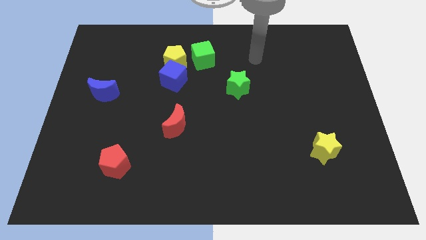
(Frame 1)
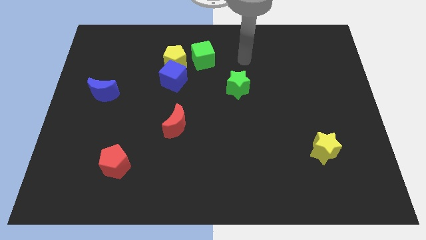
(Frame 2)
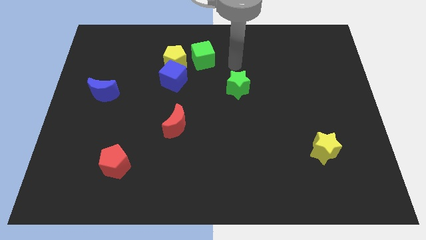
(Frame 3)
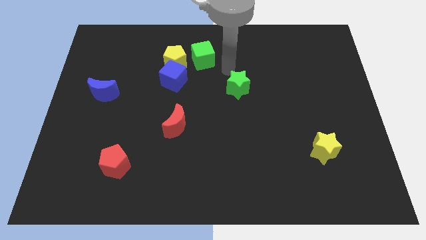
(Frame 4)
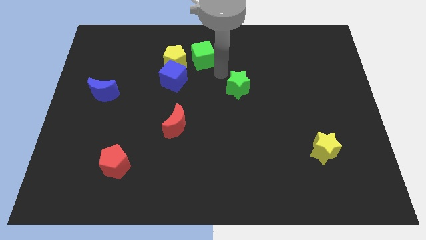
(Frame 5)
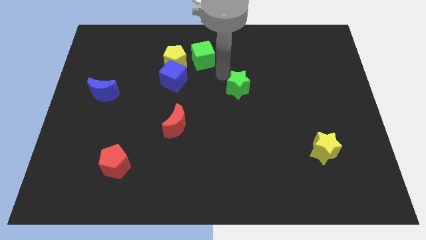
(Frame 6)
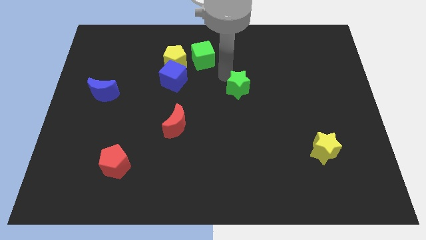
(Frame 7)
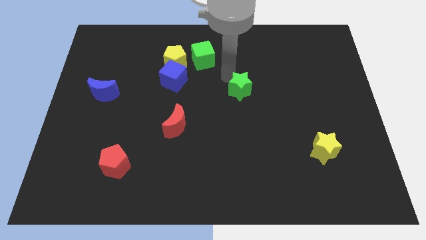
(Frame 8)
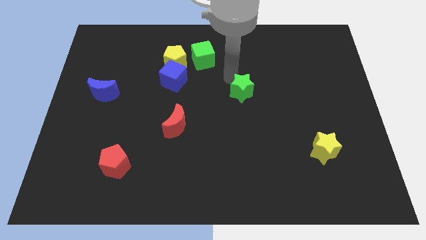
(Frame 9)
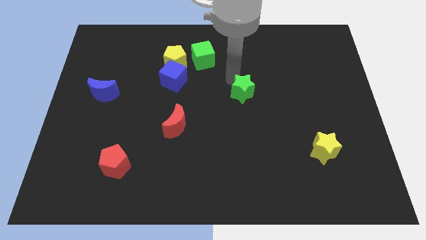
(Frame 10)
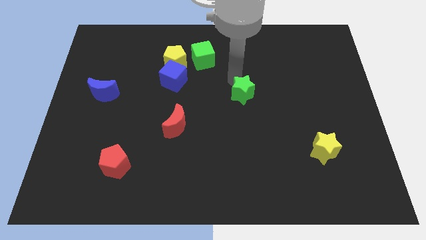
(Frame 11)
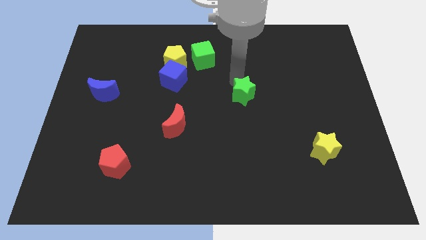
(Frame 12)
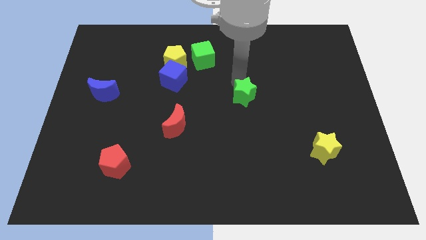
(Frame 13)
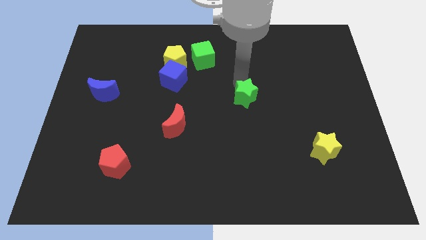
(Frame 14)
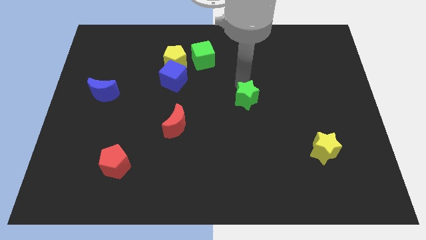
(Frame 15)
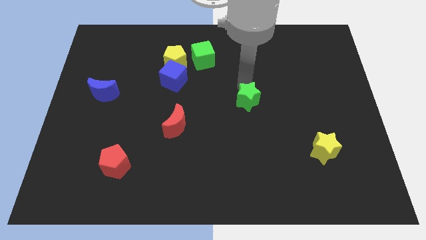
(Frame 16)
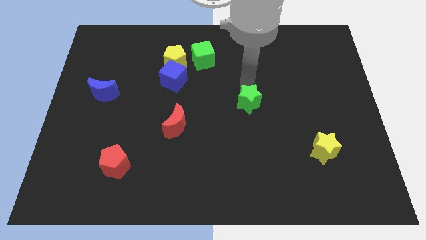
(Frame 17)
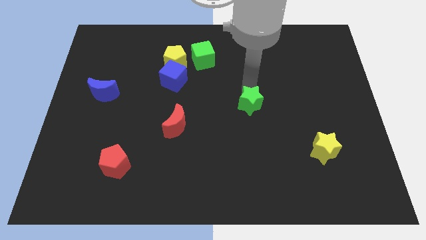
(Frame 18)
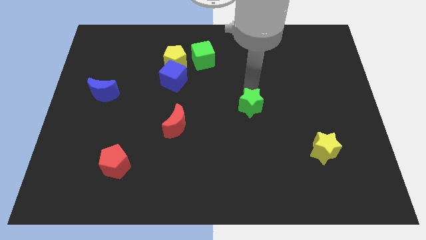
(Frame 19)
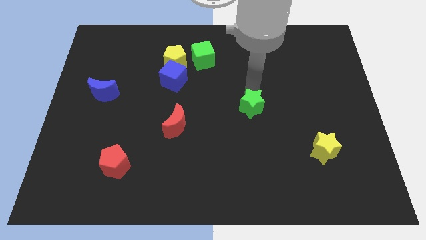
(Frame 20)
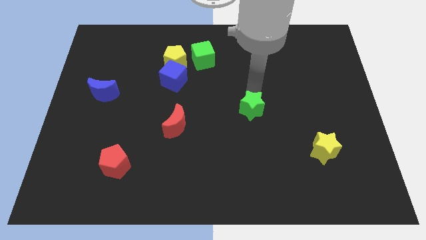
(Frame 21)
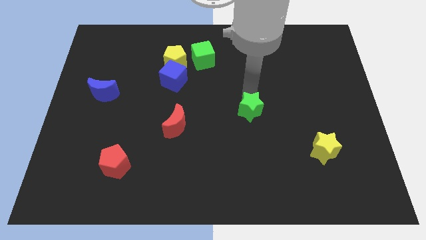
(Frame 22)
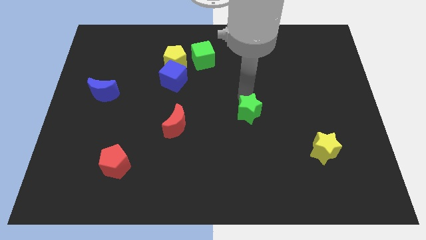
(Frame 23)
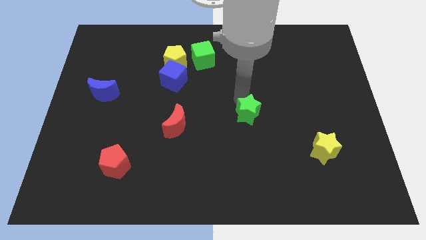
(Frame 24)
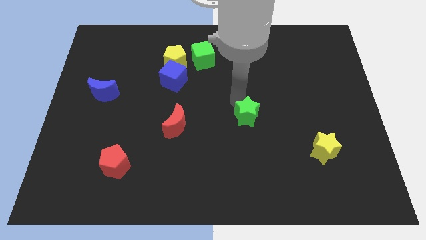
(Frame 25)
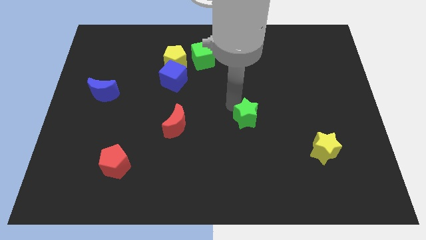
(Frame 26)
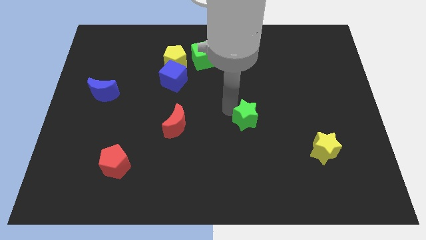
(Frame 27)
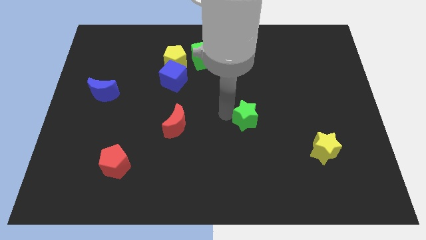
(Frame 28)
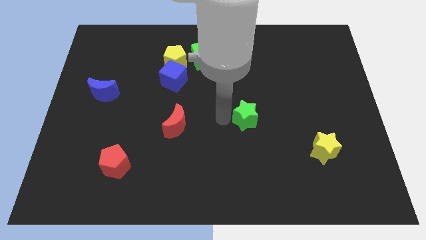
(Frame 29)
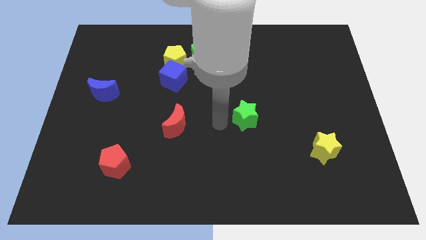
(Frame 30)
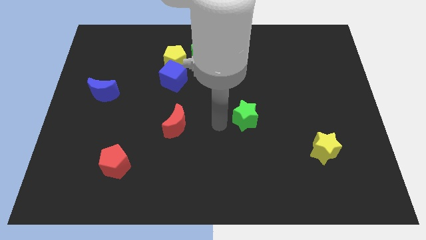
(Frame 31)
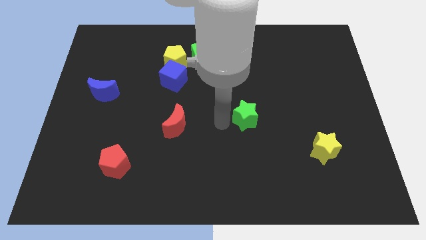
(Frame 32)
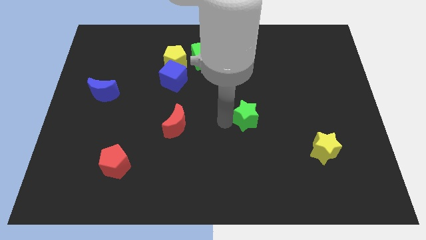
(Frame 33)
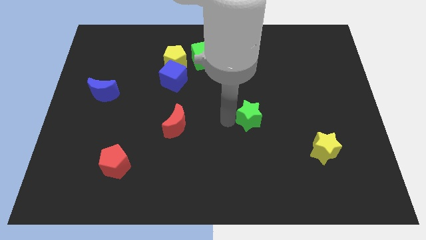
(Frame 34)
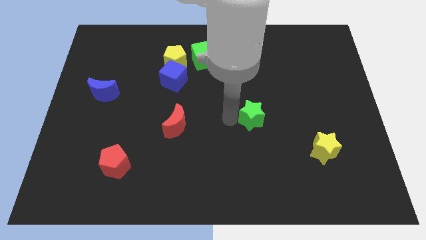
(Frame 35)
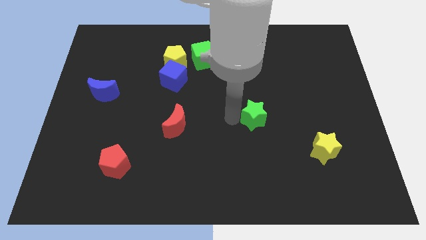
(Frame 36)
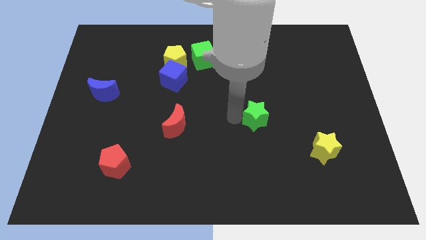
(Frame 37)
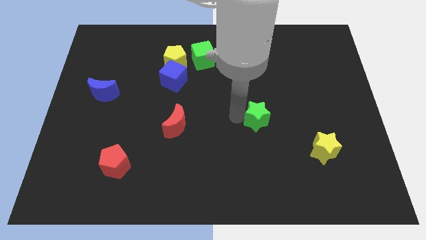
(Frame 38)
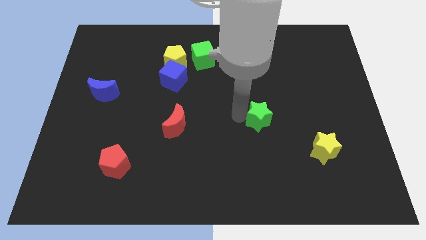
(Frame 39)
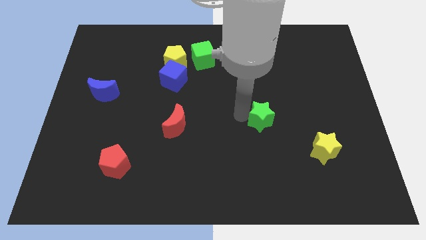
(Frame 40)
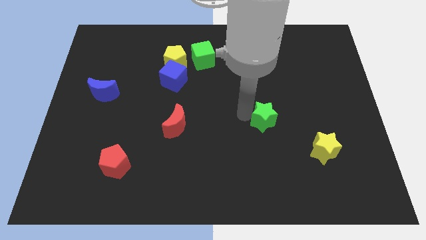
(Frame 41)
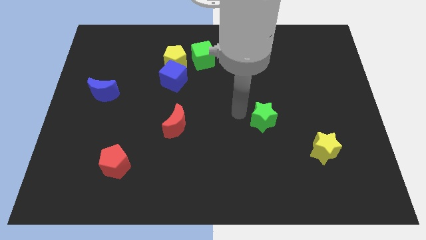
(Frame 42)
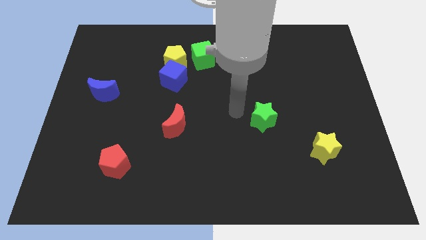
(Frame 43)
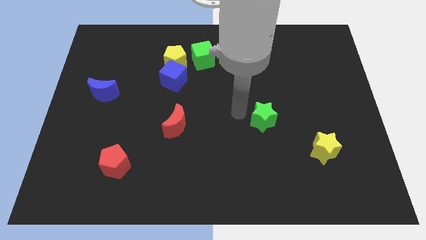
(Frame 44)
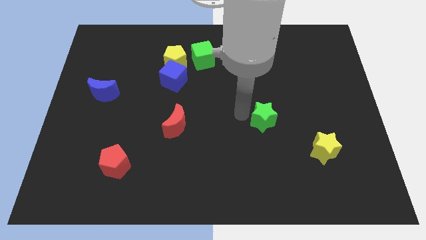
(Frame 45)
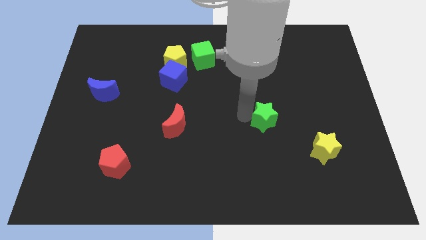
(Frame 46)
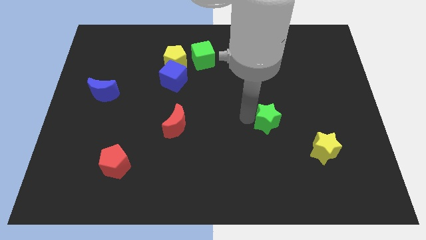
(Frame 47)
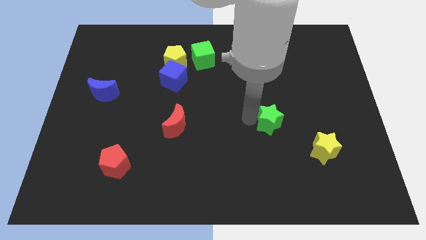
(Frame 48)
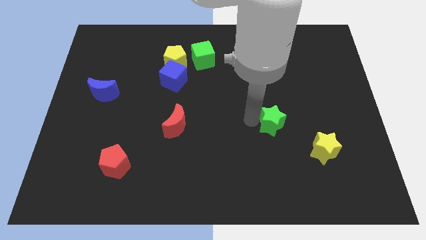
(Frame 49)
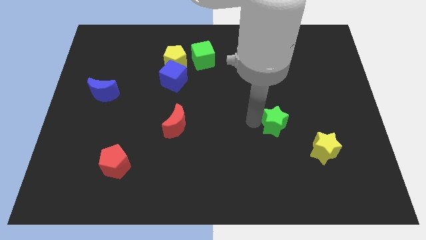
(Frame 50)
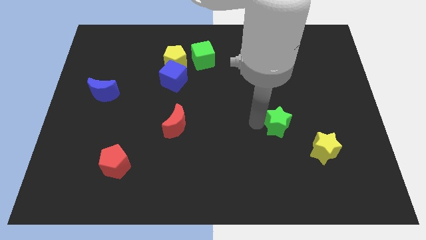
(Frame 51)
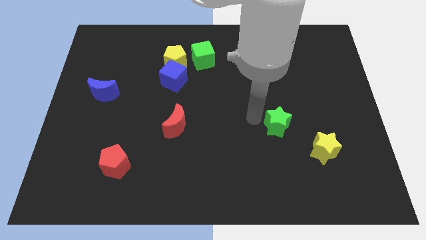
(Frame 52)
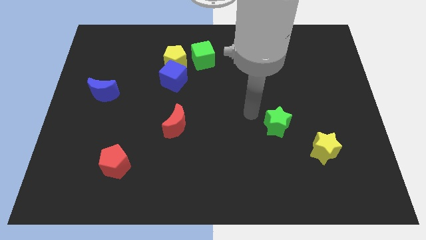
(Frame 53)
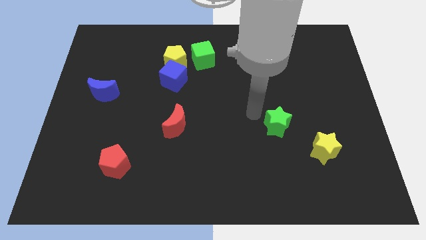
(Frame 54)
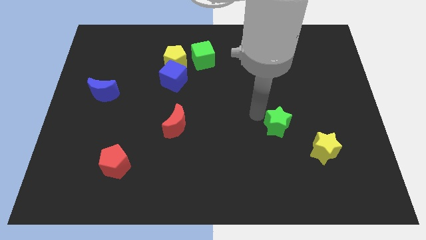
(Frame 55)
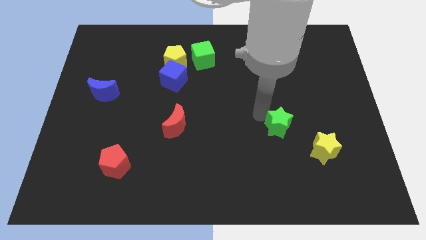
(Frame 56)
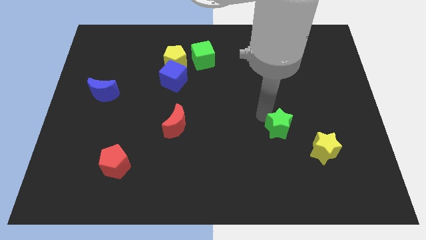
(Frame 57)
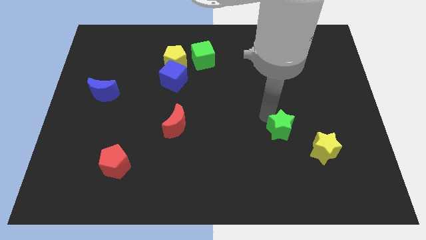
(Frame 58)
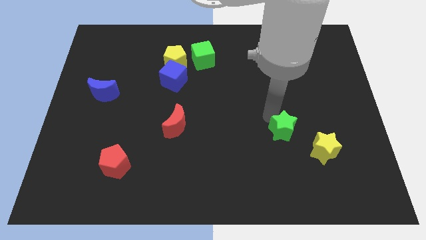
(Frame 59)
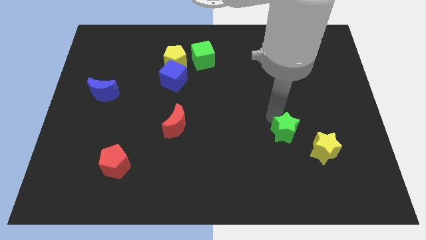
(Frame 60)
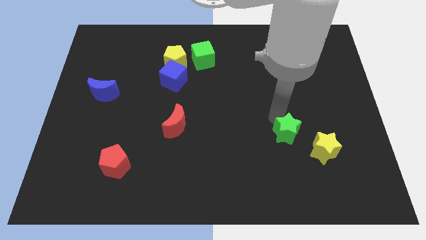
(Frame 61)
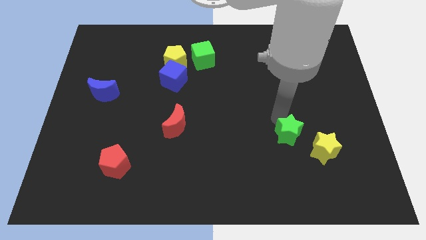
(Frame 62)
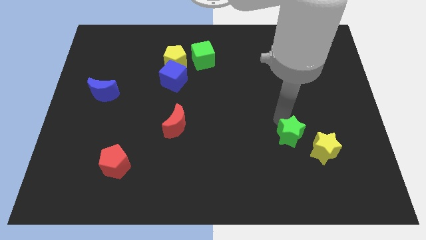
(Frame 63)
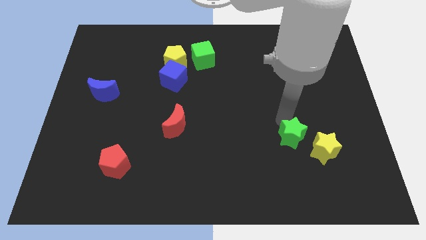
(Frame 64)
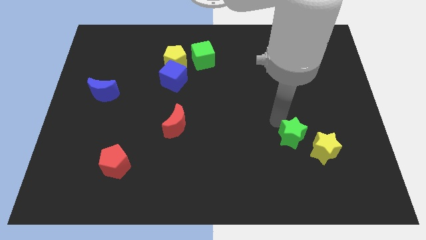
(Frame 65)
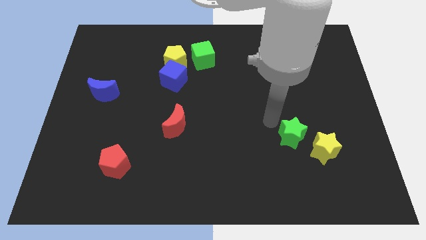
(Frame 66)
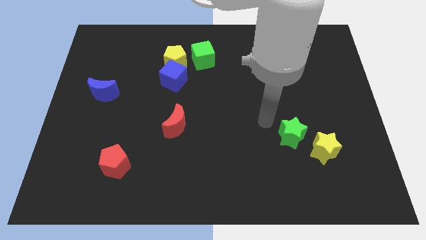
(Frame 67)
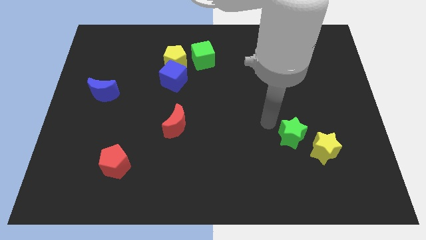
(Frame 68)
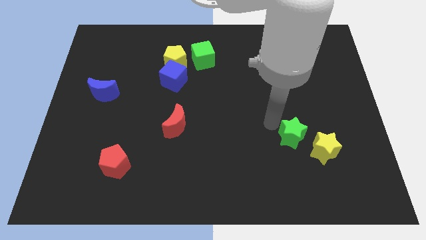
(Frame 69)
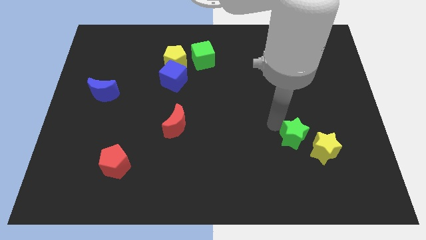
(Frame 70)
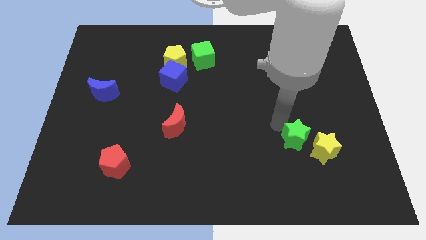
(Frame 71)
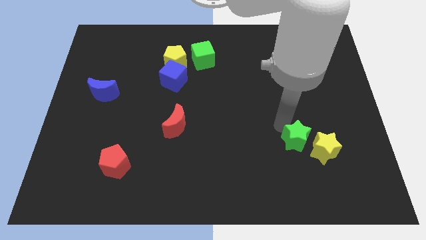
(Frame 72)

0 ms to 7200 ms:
push the green star close to the yellow star
